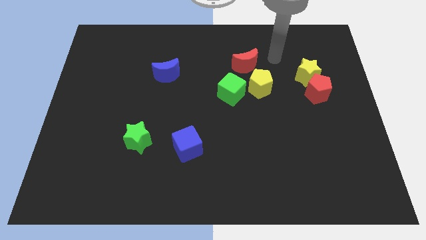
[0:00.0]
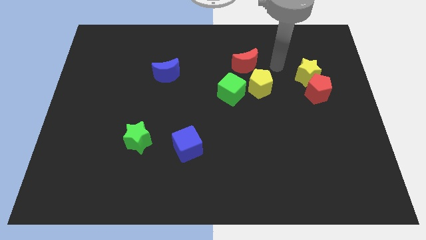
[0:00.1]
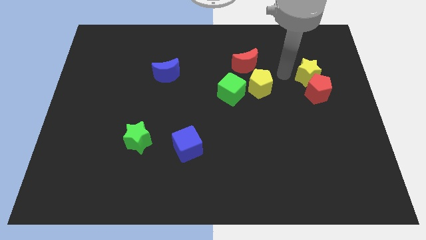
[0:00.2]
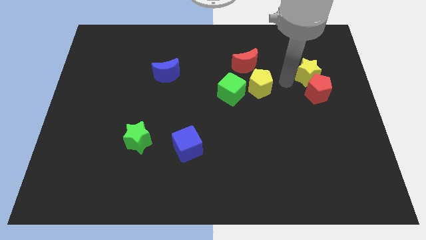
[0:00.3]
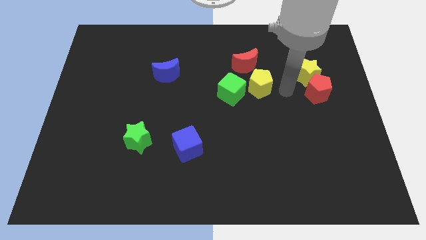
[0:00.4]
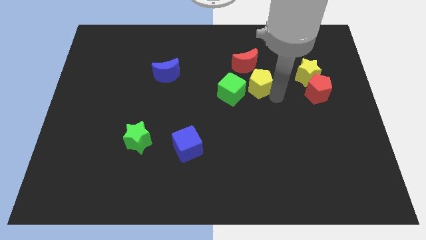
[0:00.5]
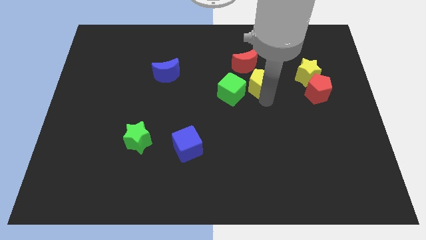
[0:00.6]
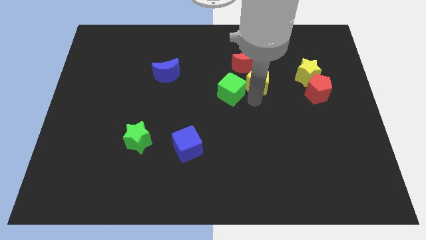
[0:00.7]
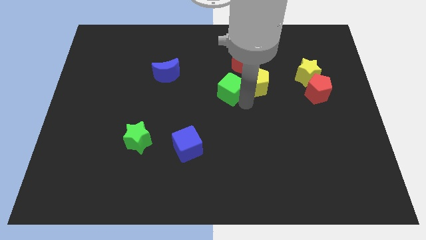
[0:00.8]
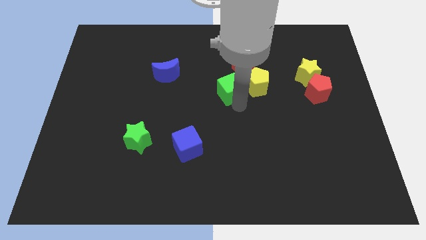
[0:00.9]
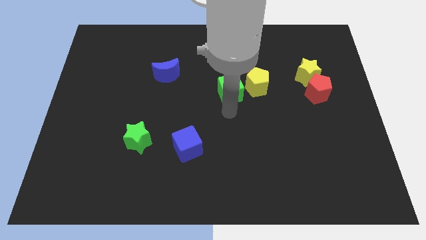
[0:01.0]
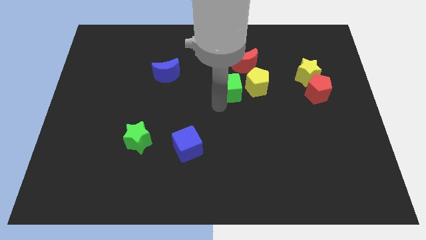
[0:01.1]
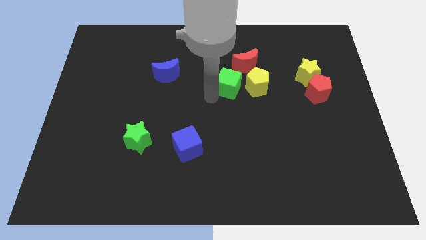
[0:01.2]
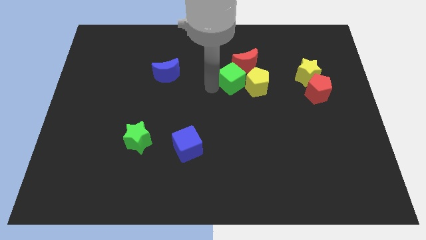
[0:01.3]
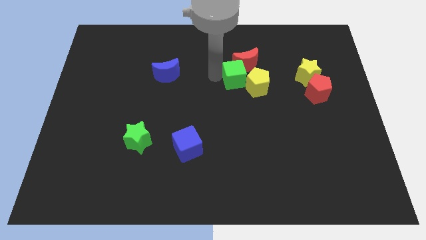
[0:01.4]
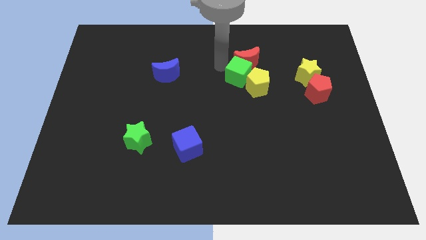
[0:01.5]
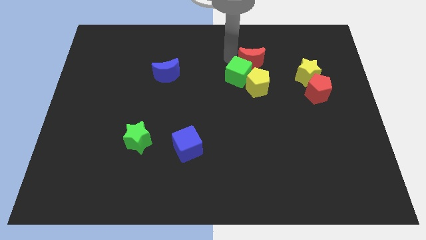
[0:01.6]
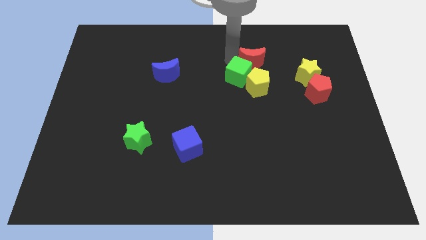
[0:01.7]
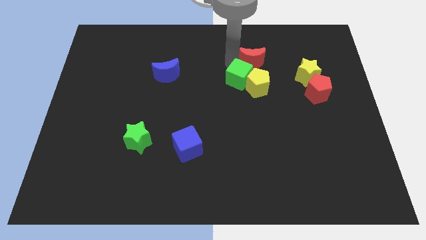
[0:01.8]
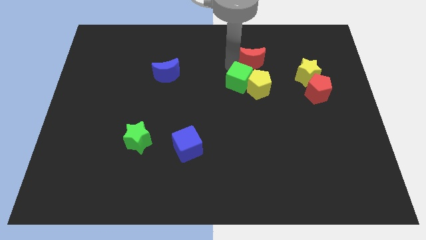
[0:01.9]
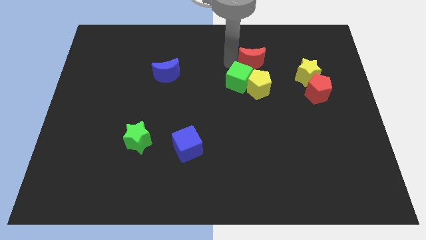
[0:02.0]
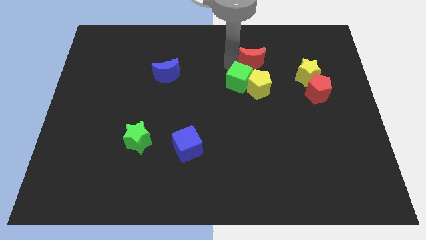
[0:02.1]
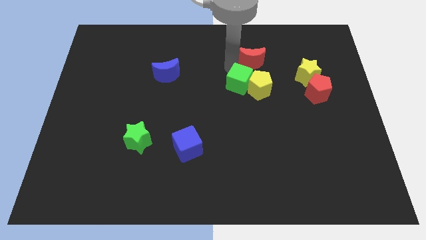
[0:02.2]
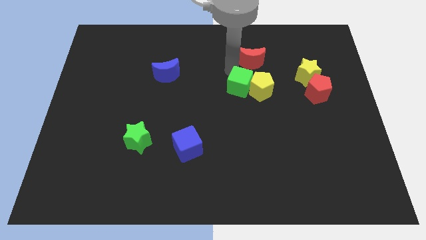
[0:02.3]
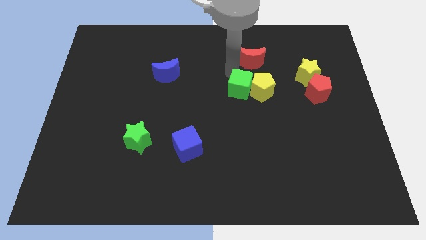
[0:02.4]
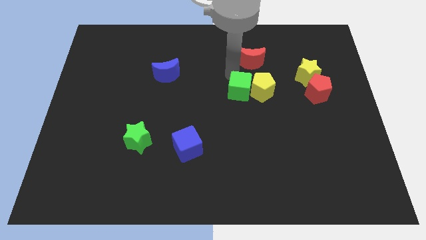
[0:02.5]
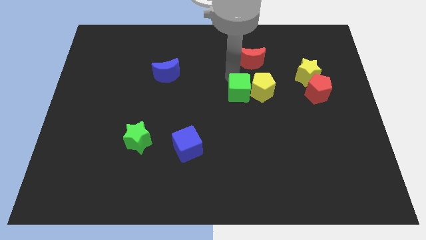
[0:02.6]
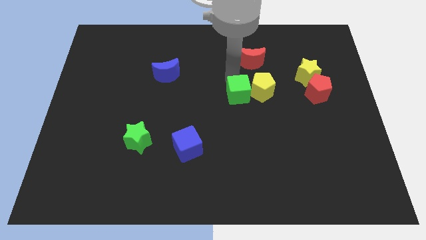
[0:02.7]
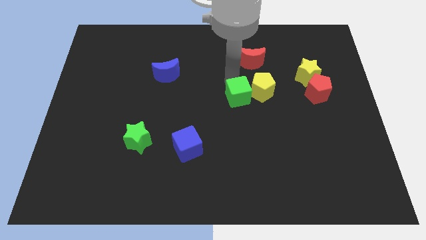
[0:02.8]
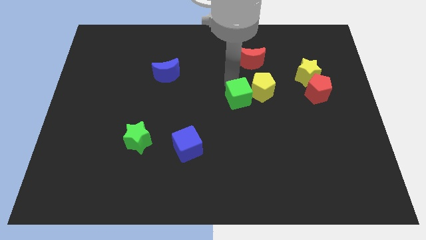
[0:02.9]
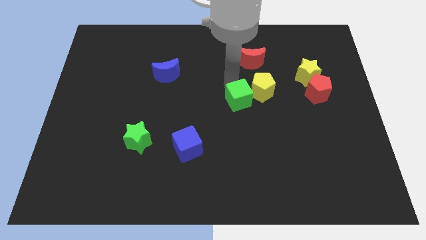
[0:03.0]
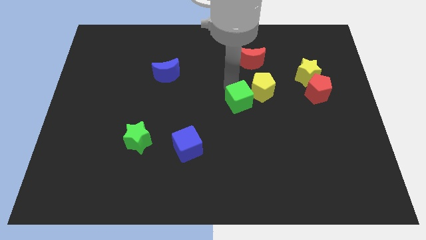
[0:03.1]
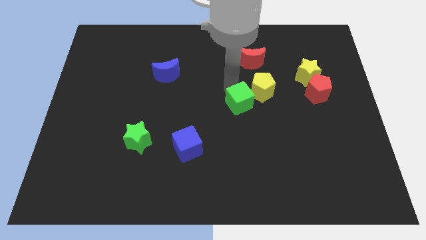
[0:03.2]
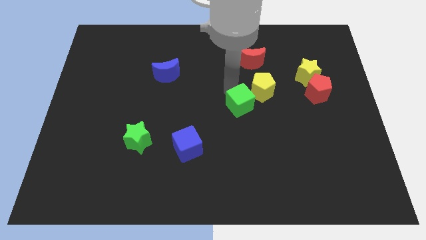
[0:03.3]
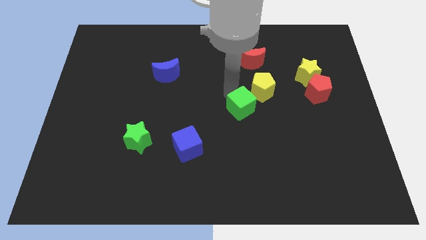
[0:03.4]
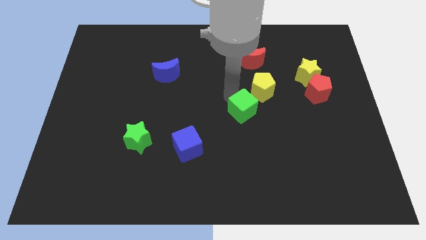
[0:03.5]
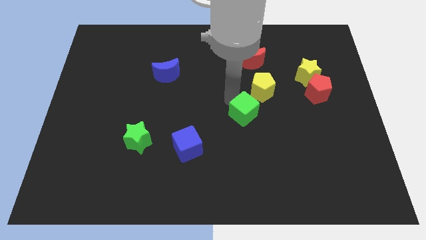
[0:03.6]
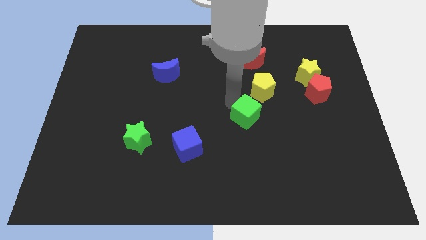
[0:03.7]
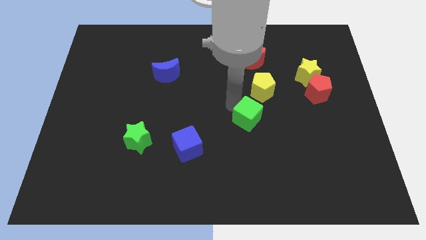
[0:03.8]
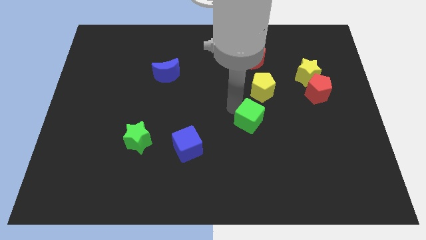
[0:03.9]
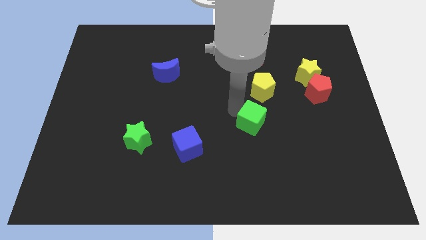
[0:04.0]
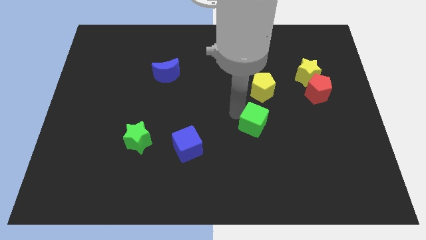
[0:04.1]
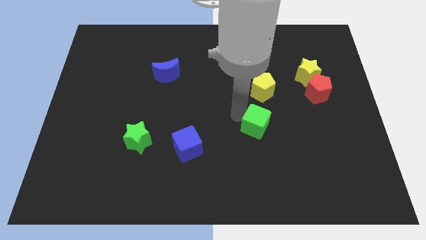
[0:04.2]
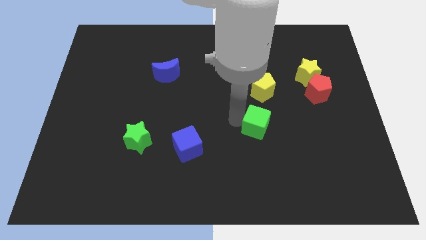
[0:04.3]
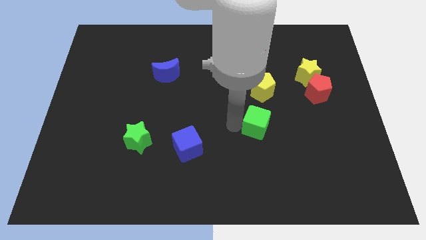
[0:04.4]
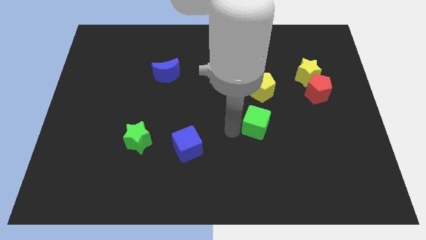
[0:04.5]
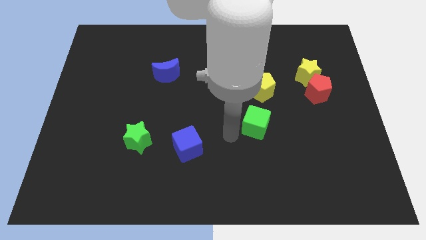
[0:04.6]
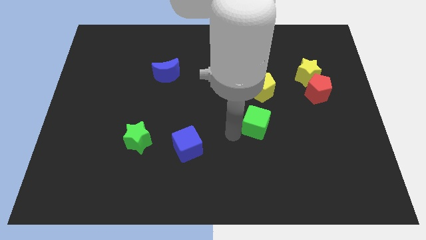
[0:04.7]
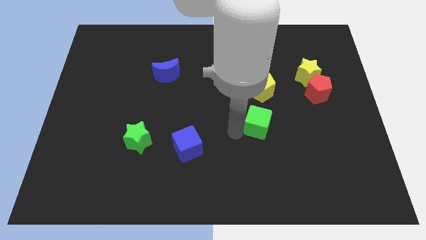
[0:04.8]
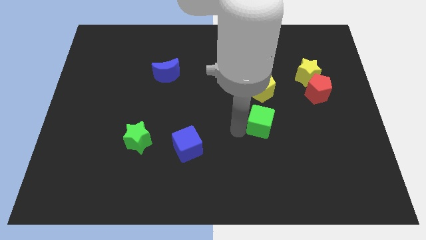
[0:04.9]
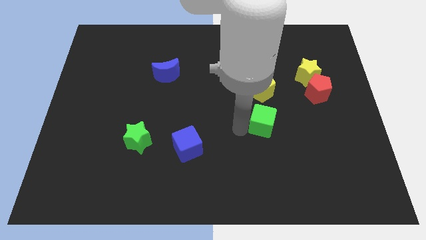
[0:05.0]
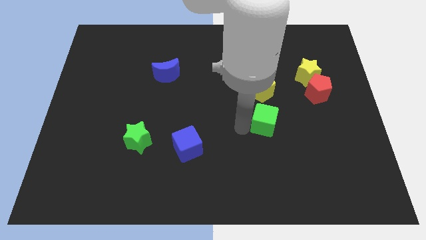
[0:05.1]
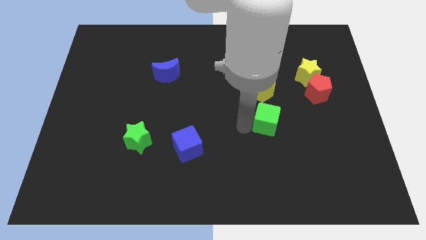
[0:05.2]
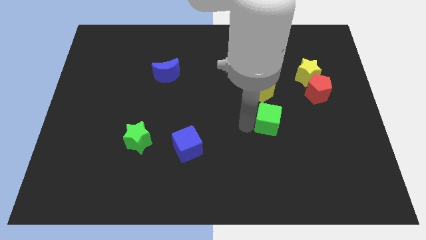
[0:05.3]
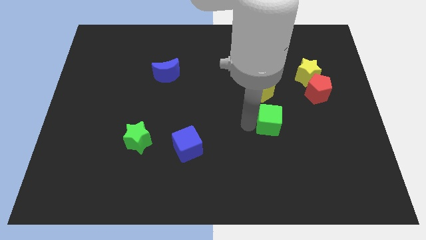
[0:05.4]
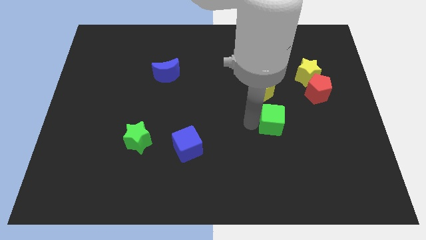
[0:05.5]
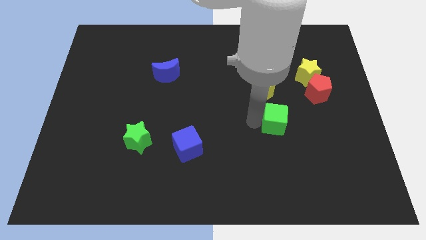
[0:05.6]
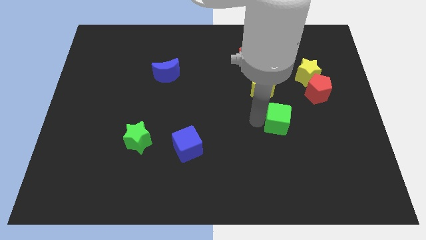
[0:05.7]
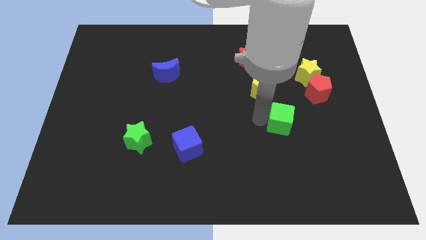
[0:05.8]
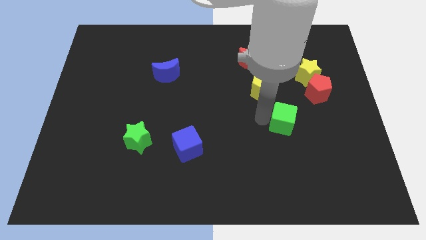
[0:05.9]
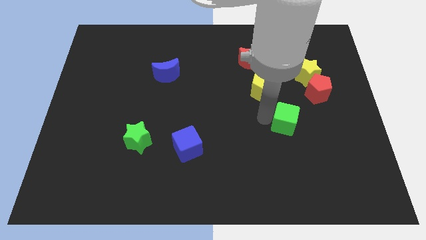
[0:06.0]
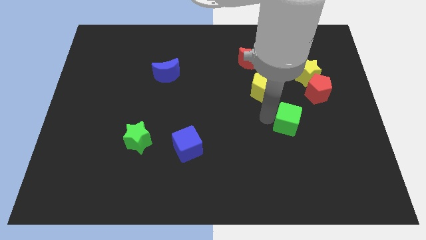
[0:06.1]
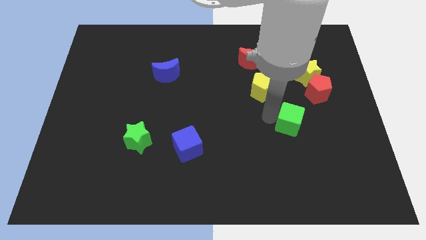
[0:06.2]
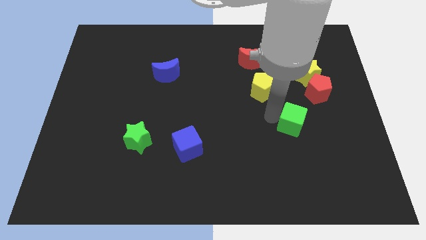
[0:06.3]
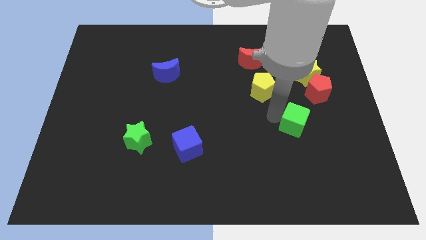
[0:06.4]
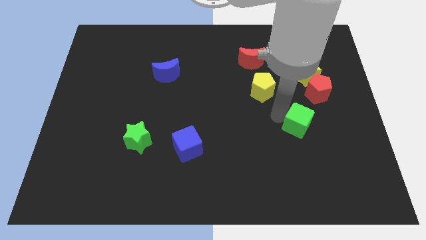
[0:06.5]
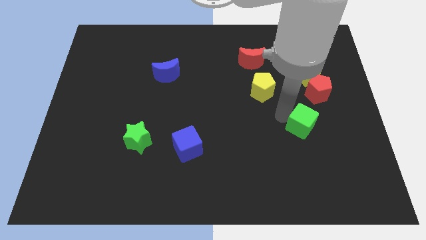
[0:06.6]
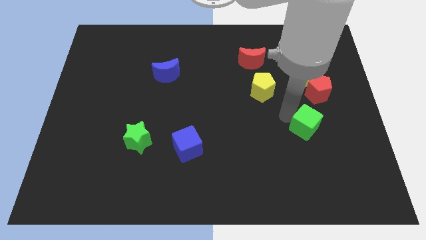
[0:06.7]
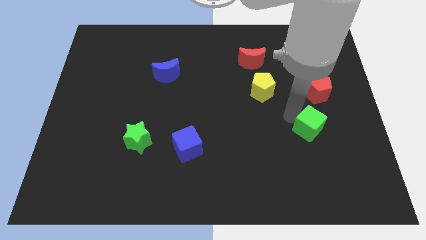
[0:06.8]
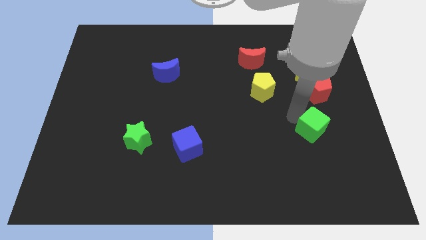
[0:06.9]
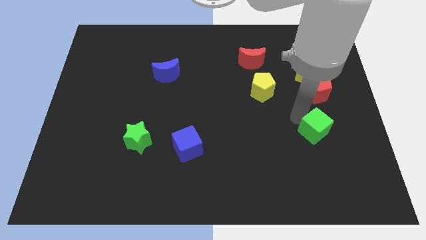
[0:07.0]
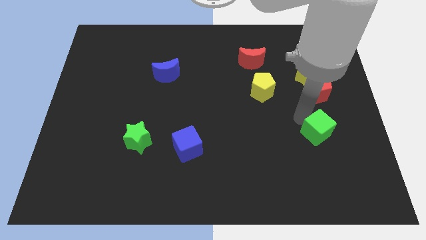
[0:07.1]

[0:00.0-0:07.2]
slide the green cube down and to the right diagonally

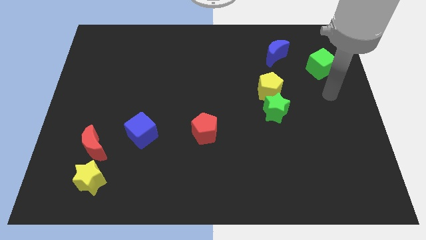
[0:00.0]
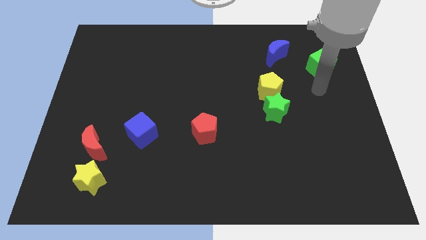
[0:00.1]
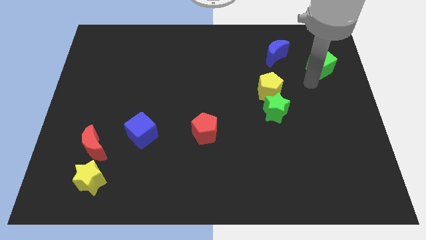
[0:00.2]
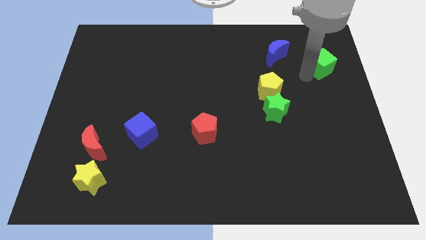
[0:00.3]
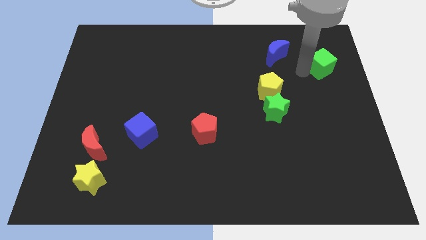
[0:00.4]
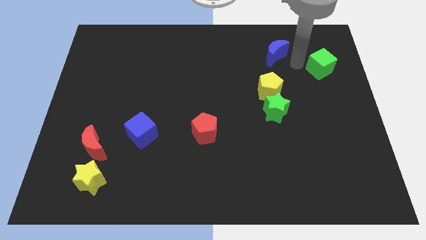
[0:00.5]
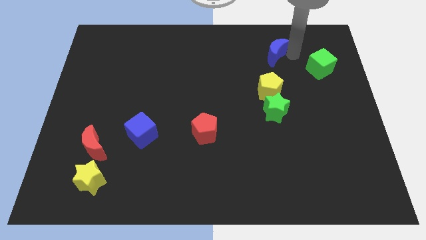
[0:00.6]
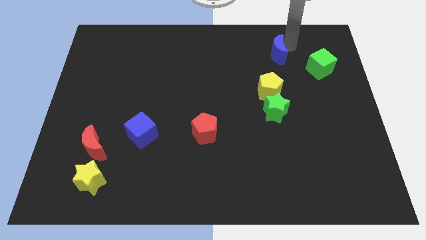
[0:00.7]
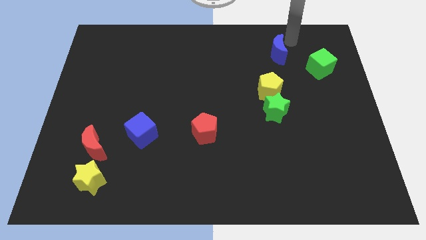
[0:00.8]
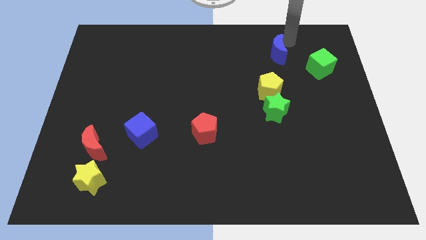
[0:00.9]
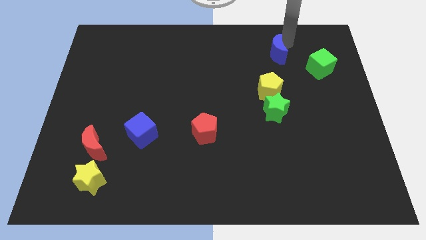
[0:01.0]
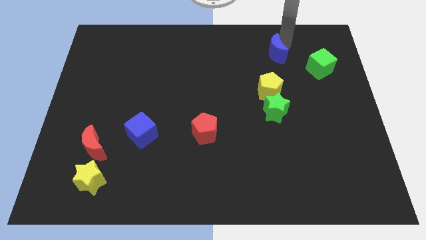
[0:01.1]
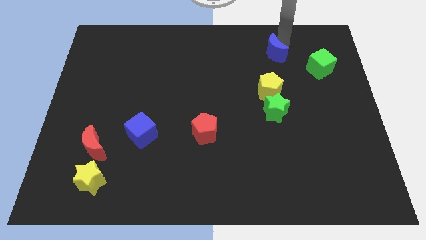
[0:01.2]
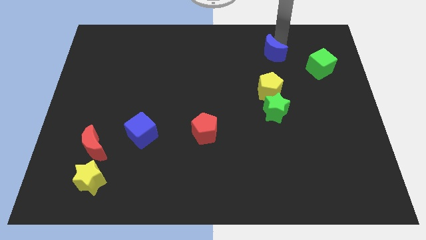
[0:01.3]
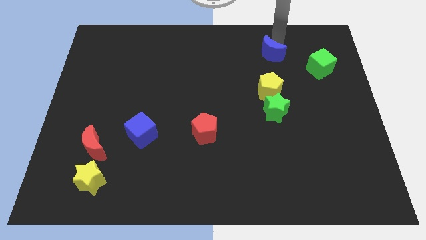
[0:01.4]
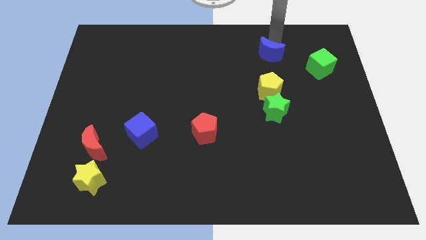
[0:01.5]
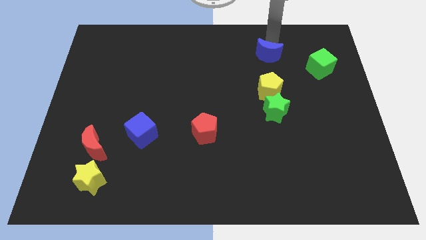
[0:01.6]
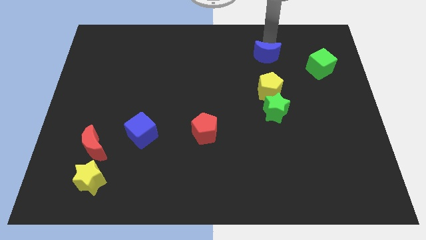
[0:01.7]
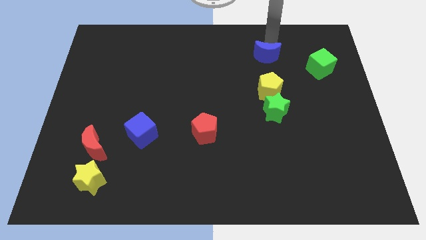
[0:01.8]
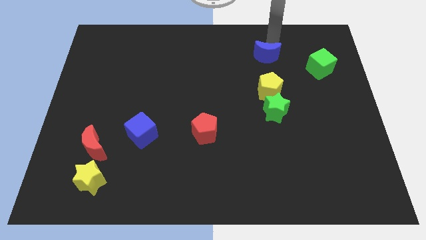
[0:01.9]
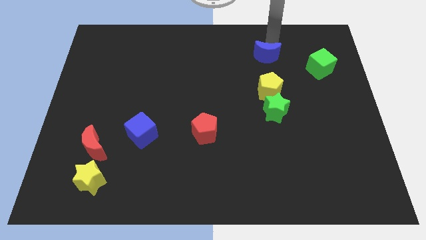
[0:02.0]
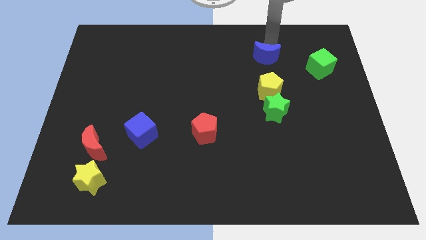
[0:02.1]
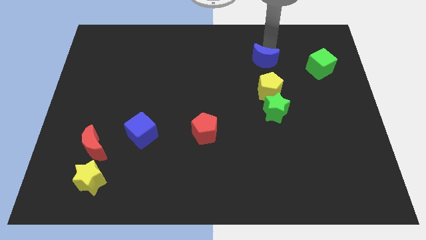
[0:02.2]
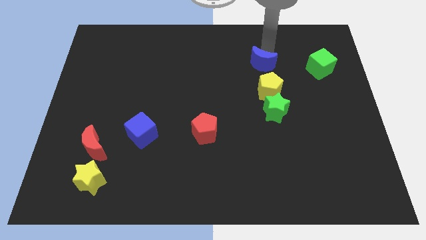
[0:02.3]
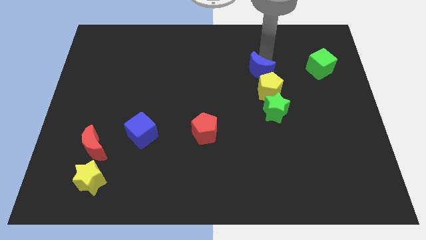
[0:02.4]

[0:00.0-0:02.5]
move the blue moon down and then to the left a bit
